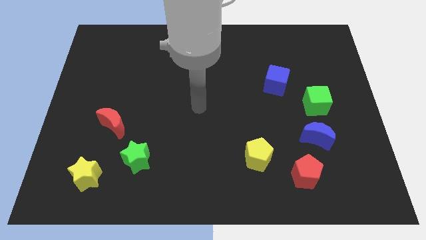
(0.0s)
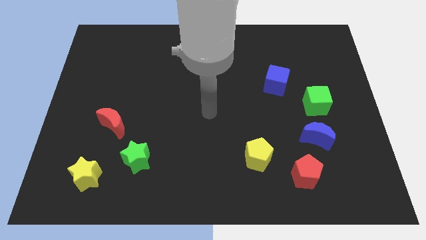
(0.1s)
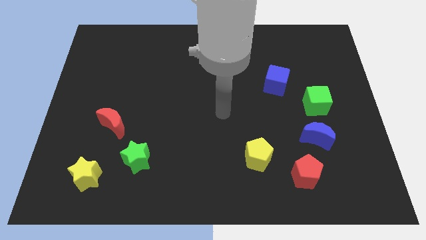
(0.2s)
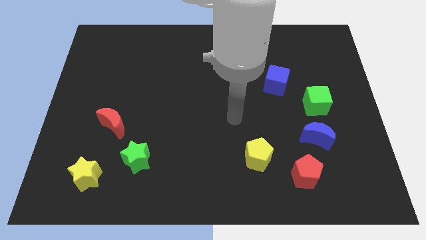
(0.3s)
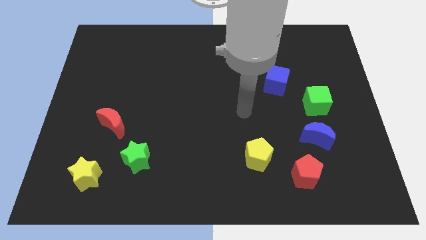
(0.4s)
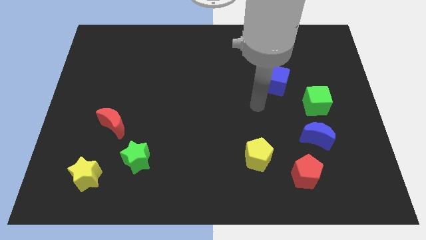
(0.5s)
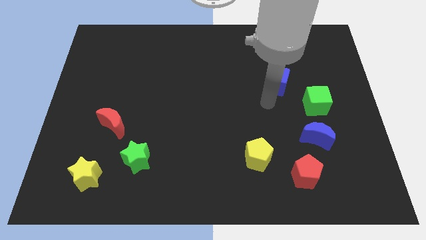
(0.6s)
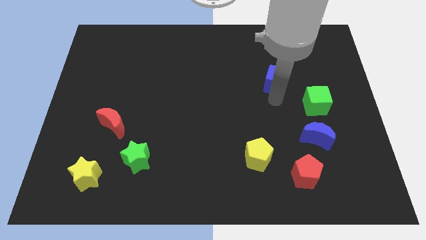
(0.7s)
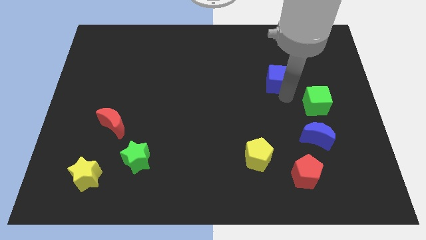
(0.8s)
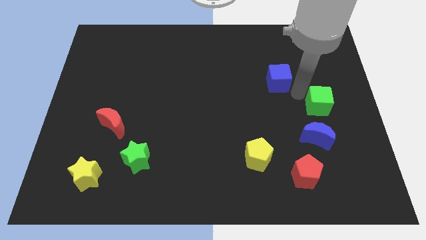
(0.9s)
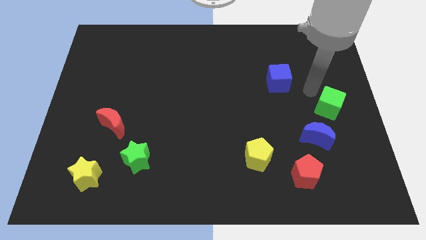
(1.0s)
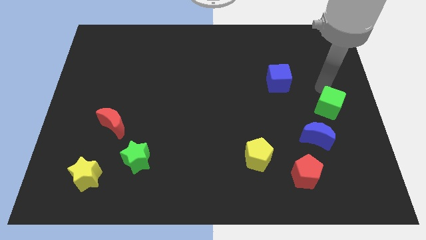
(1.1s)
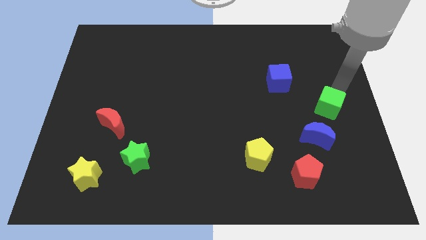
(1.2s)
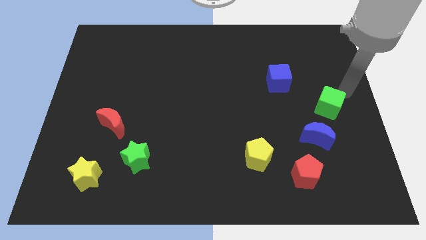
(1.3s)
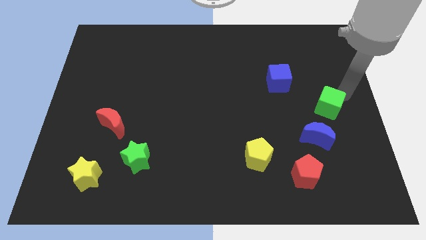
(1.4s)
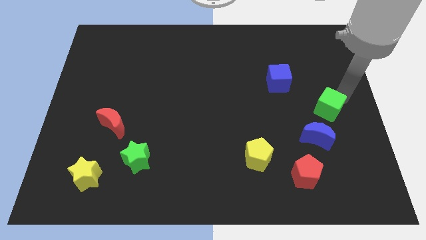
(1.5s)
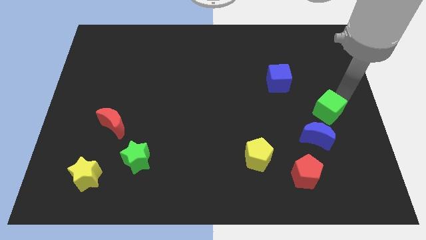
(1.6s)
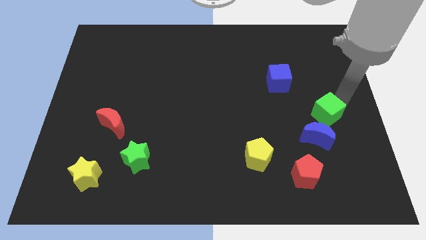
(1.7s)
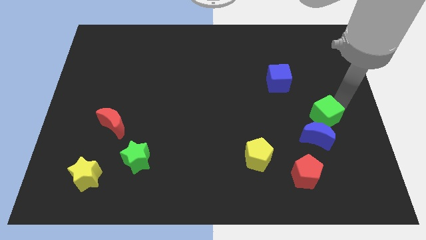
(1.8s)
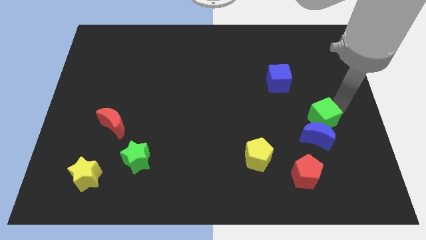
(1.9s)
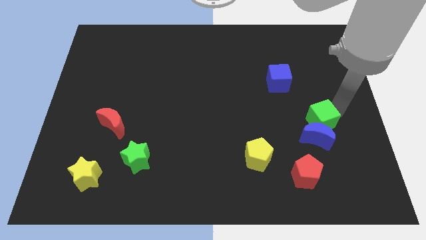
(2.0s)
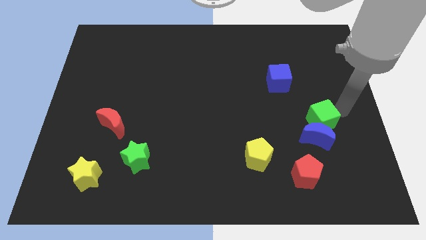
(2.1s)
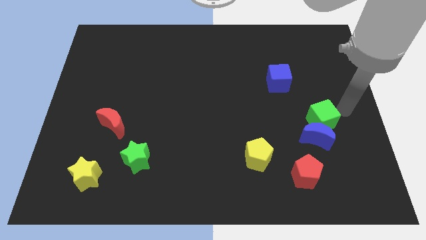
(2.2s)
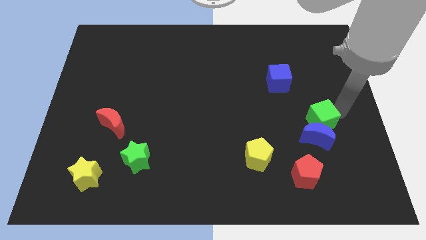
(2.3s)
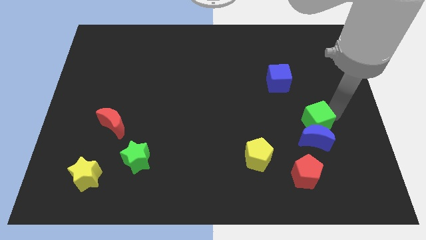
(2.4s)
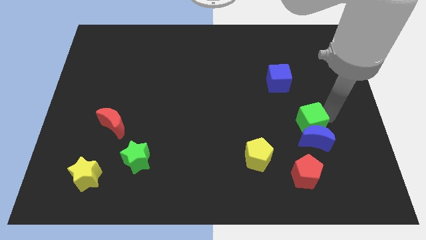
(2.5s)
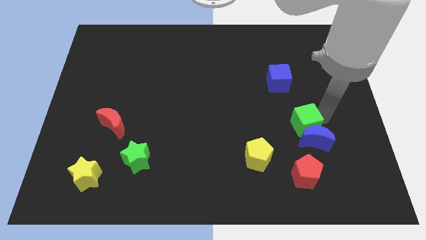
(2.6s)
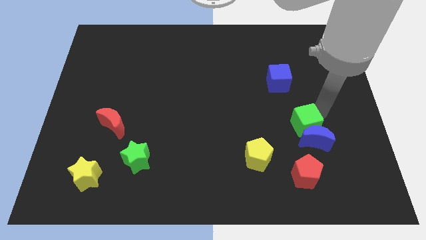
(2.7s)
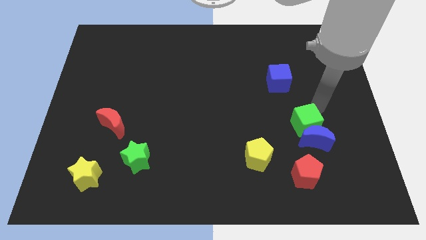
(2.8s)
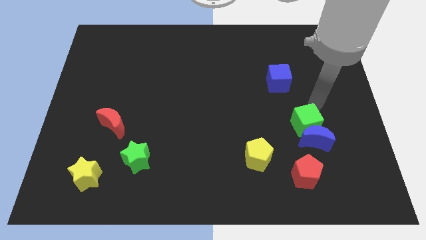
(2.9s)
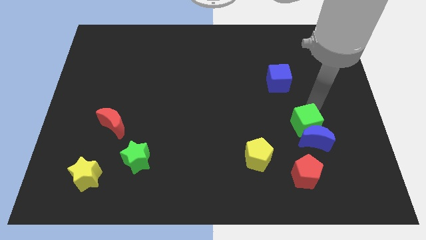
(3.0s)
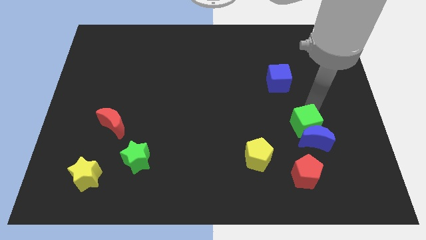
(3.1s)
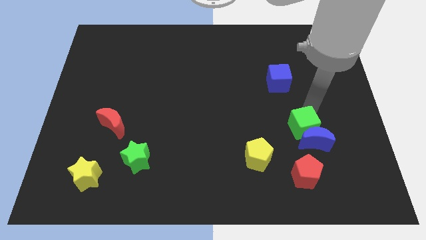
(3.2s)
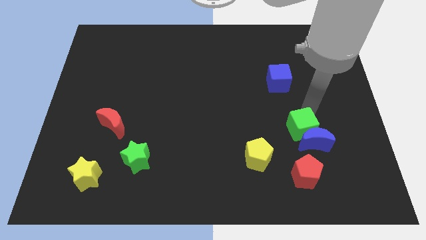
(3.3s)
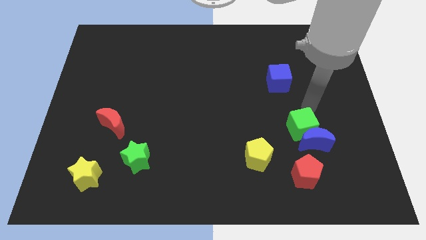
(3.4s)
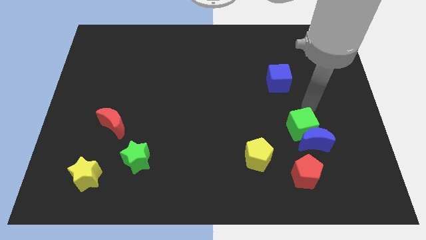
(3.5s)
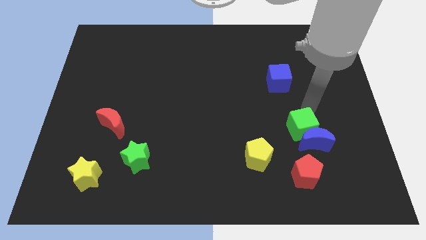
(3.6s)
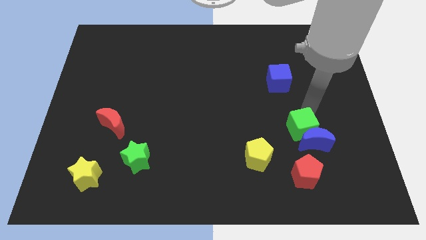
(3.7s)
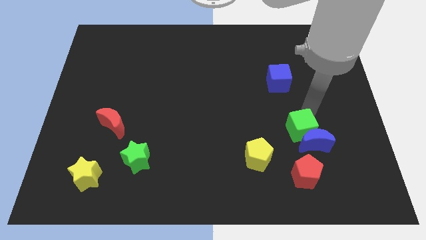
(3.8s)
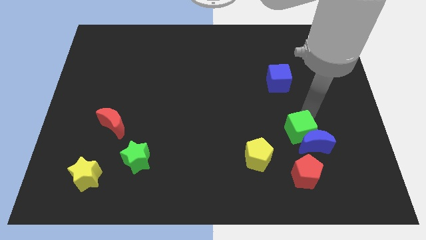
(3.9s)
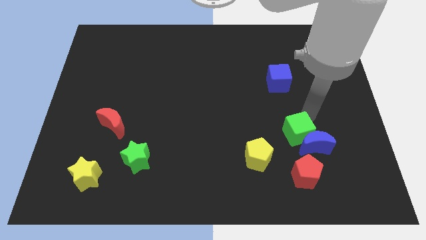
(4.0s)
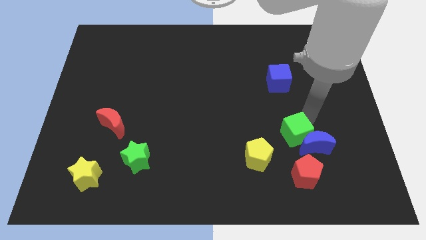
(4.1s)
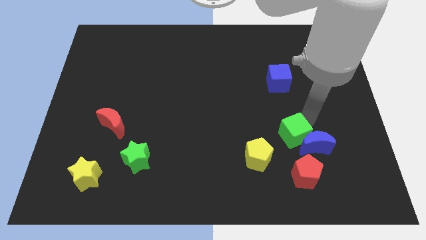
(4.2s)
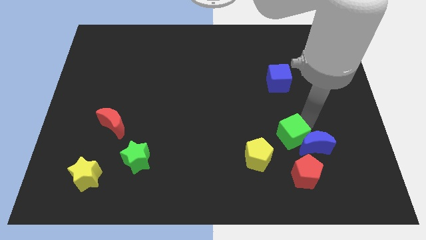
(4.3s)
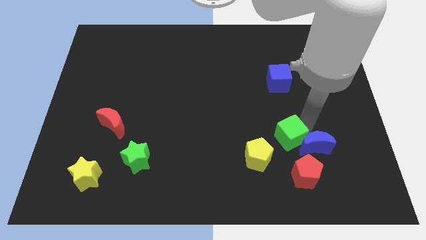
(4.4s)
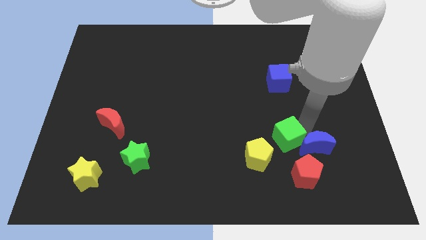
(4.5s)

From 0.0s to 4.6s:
put the green cube to the right side of the yellow pentagon

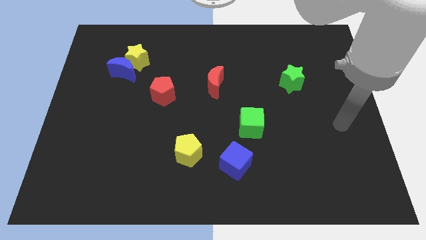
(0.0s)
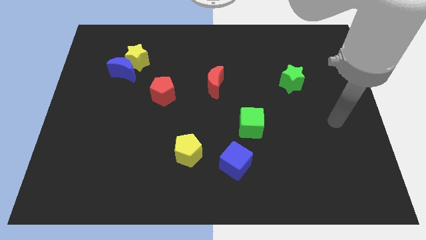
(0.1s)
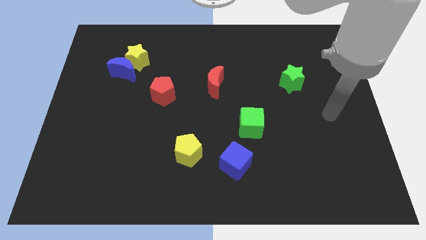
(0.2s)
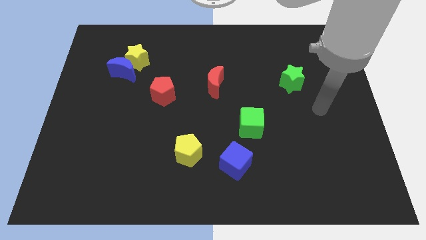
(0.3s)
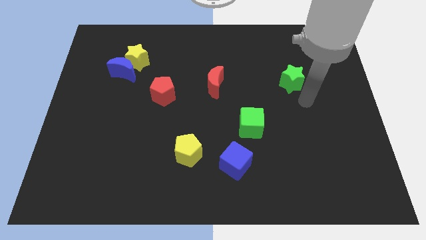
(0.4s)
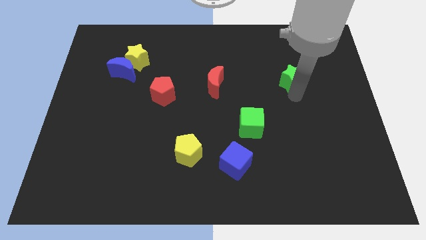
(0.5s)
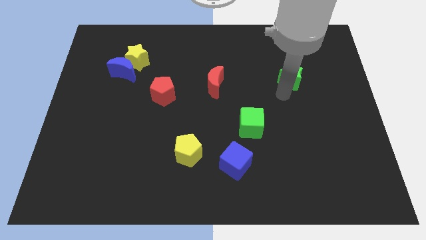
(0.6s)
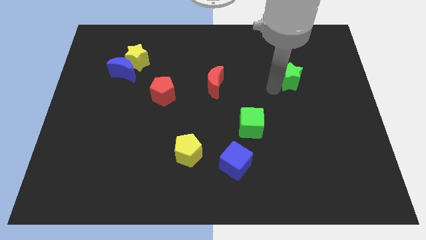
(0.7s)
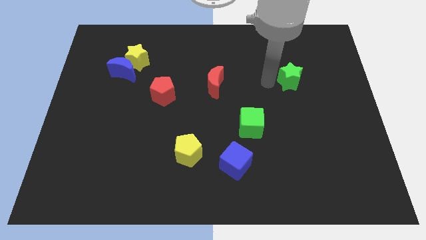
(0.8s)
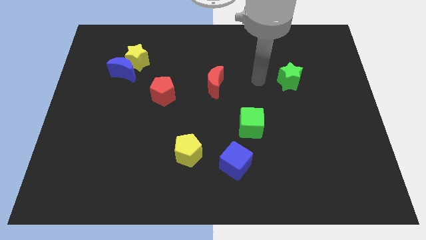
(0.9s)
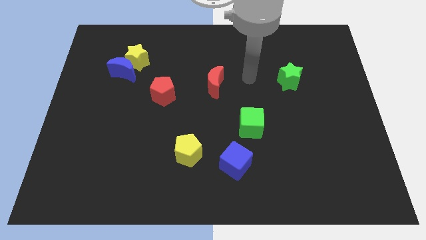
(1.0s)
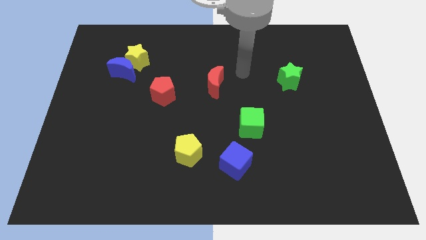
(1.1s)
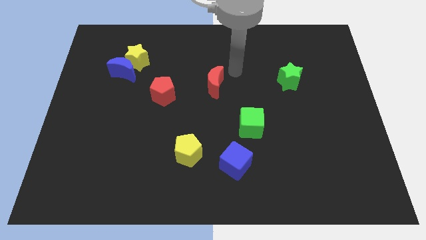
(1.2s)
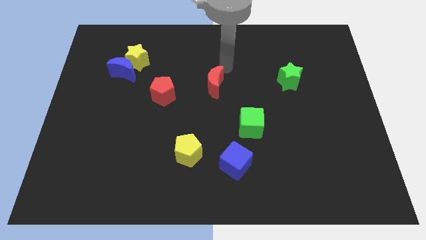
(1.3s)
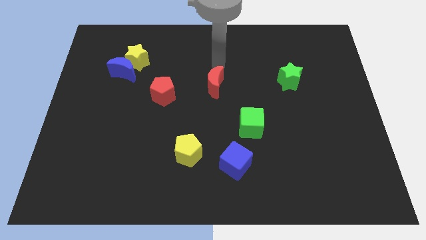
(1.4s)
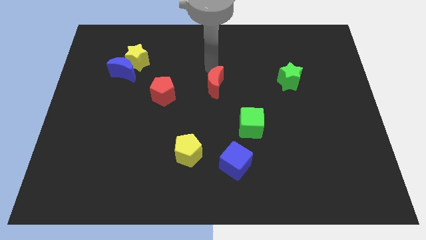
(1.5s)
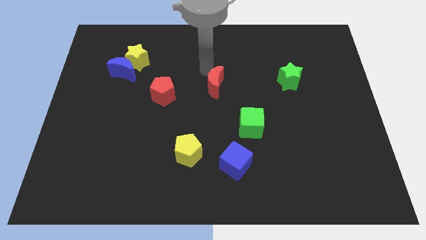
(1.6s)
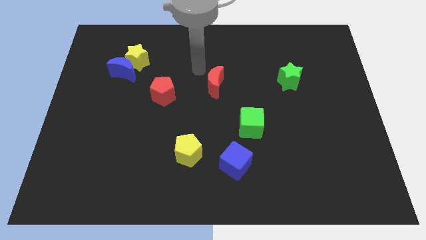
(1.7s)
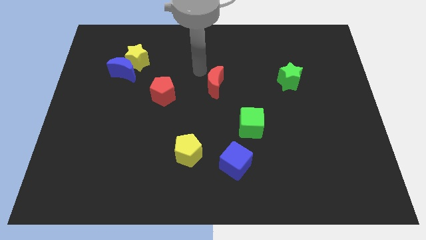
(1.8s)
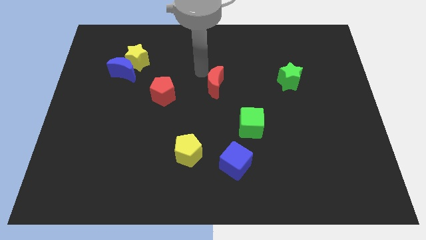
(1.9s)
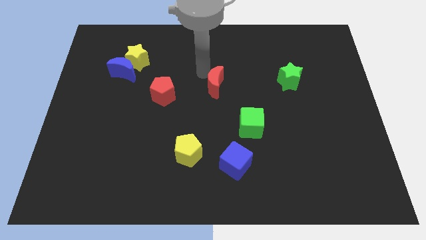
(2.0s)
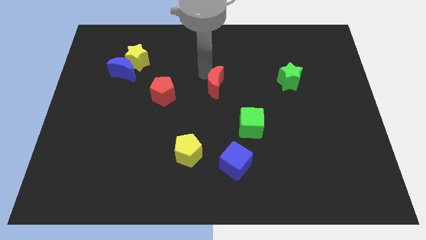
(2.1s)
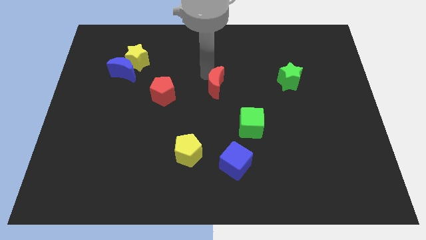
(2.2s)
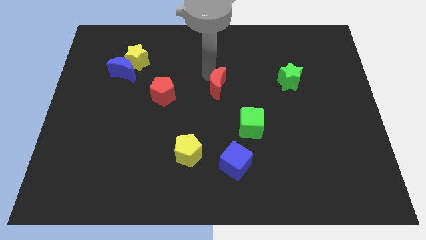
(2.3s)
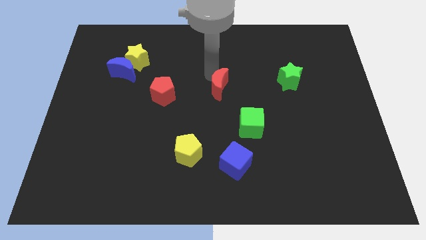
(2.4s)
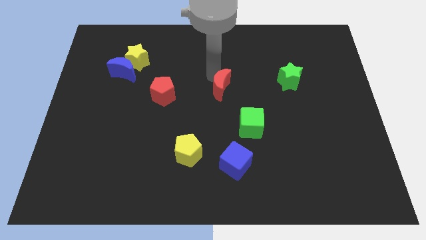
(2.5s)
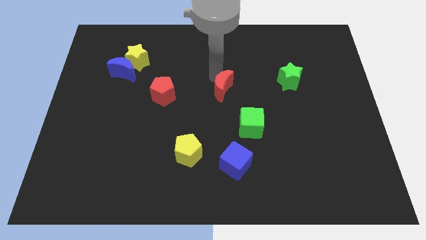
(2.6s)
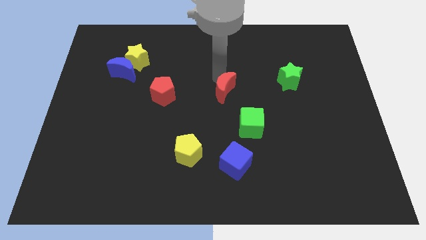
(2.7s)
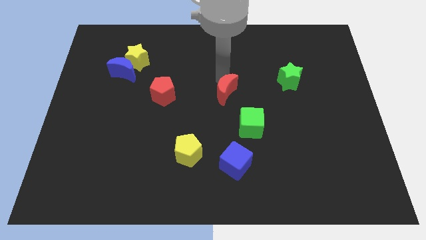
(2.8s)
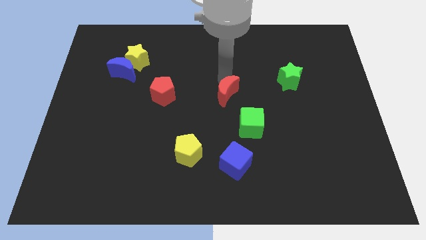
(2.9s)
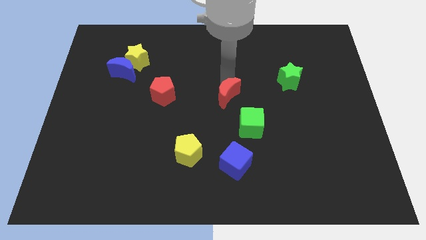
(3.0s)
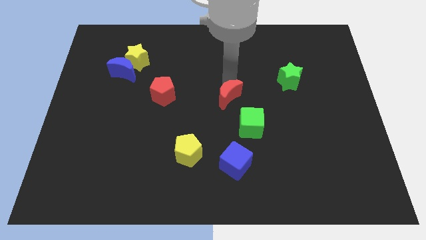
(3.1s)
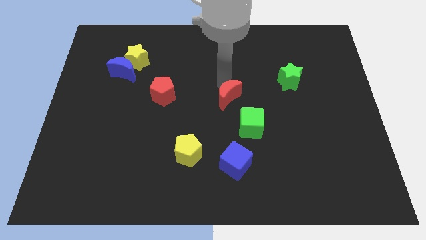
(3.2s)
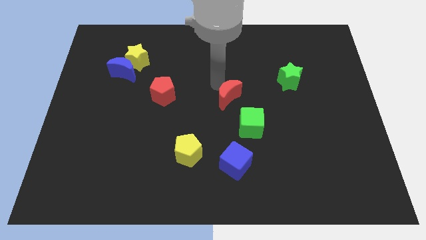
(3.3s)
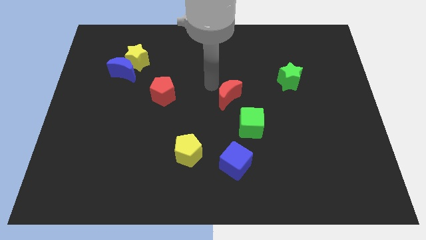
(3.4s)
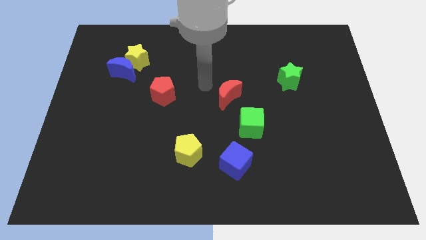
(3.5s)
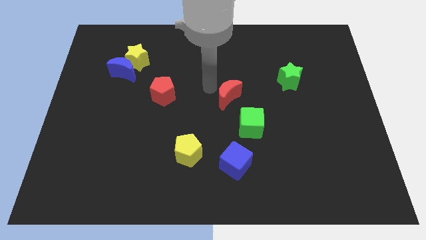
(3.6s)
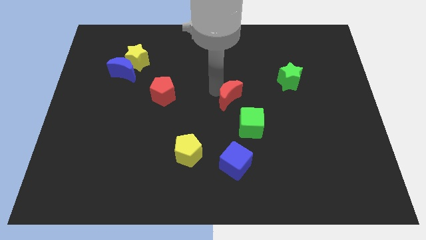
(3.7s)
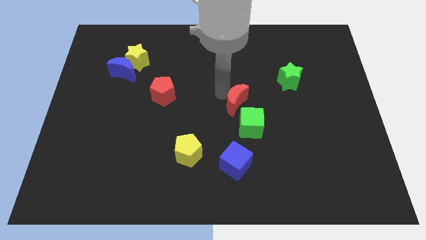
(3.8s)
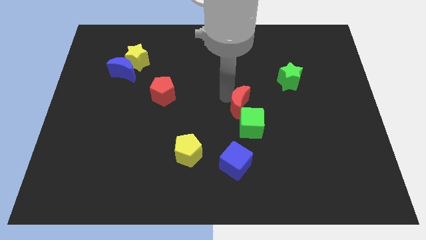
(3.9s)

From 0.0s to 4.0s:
put the red moon to the top of the blue cube
